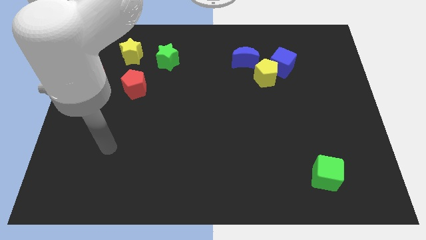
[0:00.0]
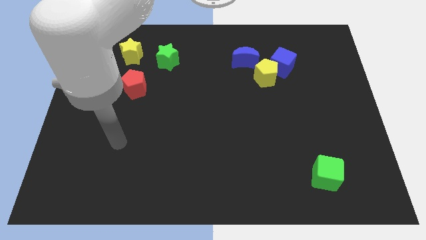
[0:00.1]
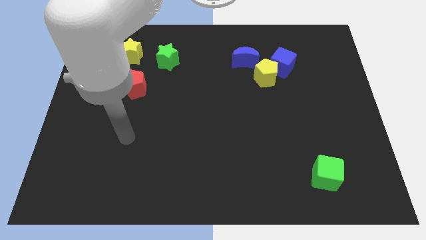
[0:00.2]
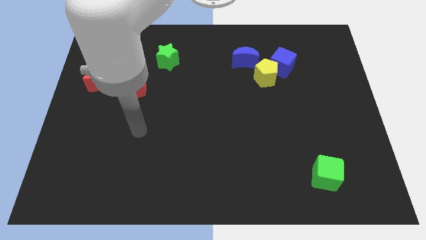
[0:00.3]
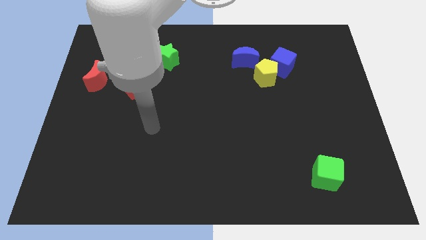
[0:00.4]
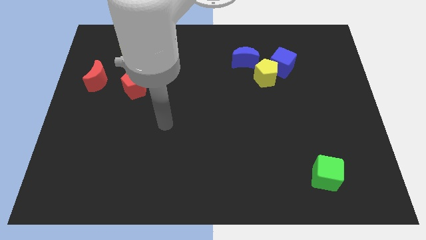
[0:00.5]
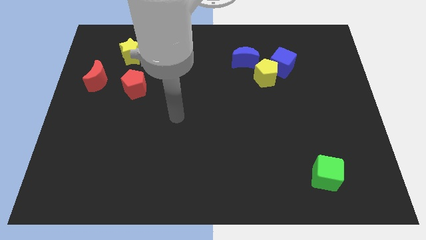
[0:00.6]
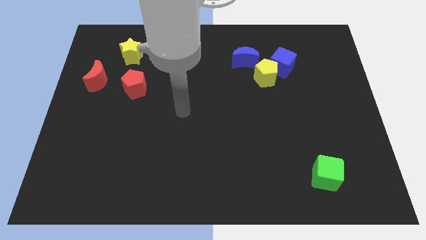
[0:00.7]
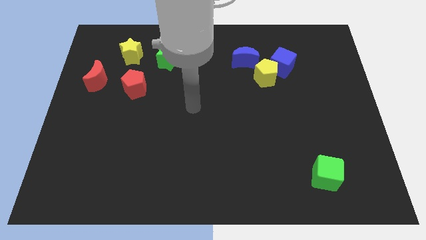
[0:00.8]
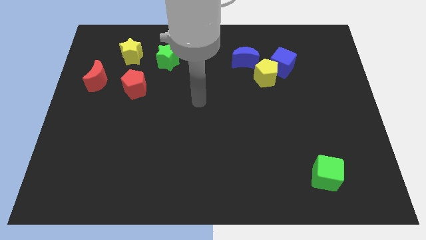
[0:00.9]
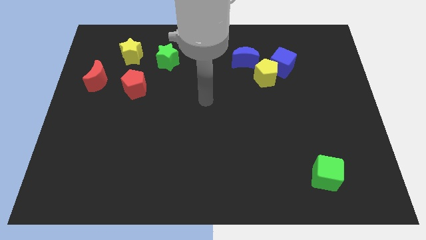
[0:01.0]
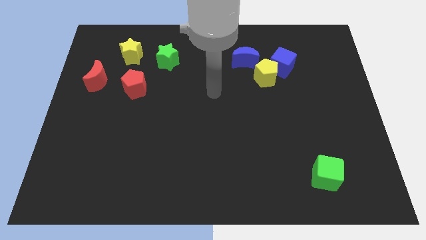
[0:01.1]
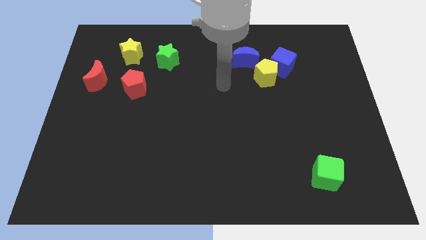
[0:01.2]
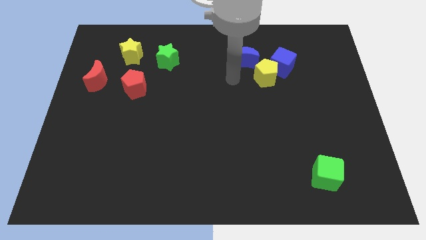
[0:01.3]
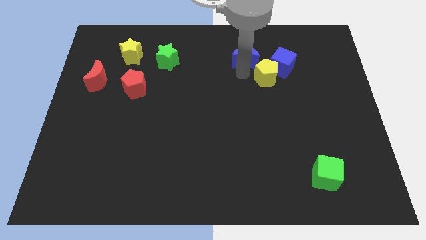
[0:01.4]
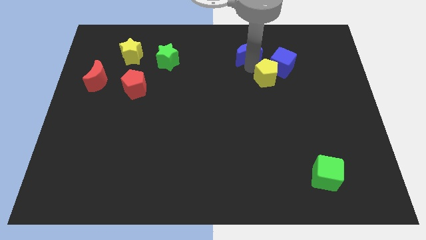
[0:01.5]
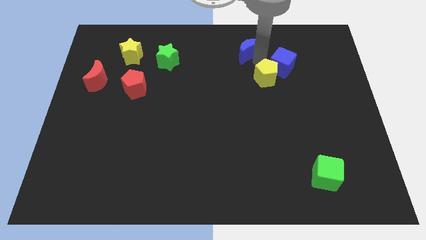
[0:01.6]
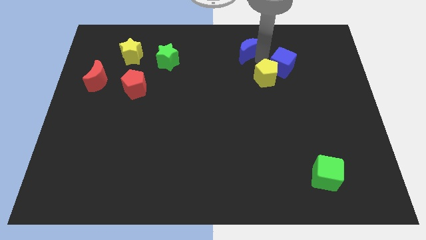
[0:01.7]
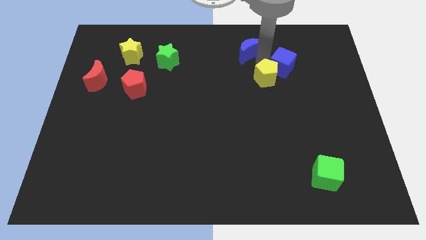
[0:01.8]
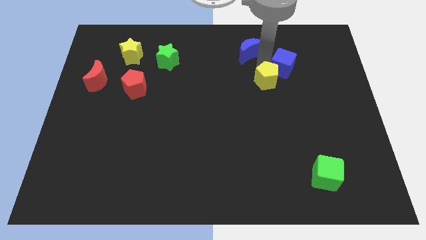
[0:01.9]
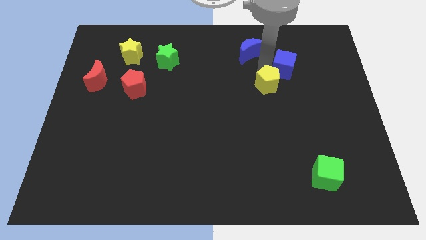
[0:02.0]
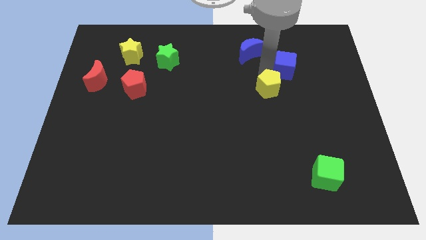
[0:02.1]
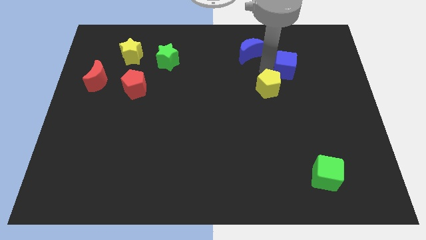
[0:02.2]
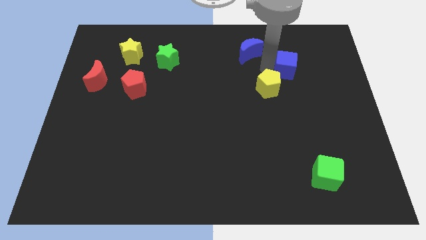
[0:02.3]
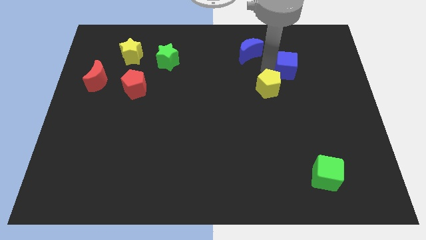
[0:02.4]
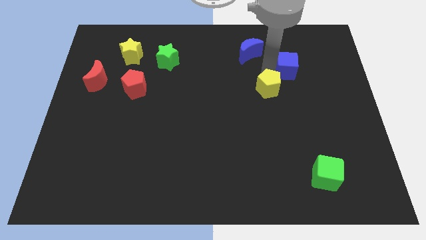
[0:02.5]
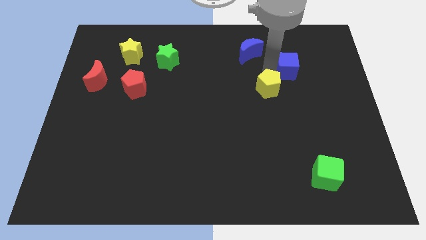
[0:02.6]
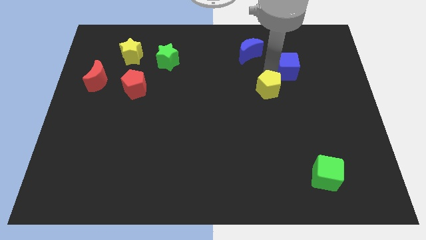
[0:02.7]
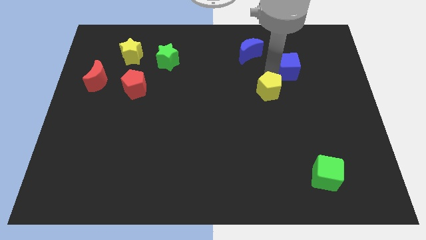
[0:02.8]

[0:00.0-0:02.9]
move the yellow pentagon away from the blue cube and blue moon

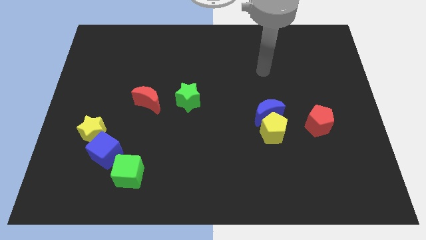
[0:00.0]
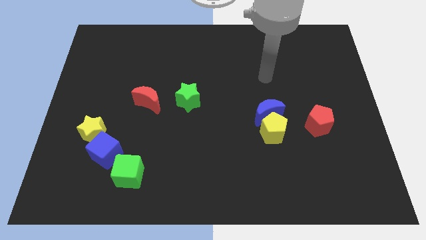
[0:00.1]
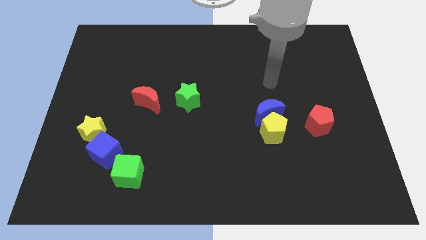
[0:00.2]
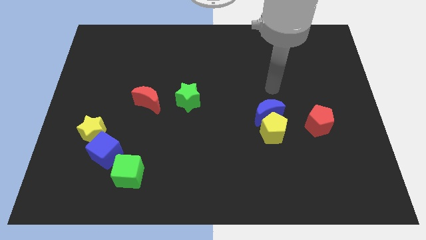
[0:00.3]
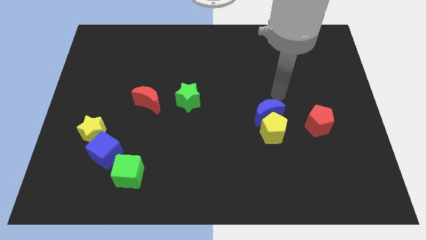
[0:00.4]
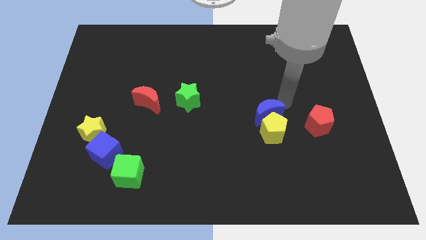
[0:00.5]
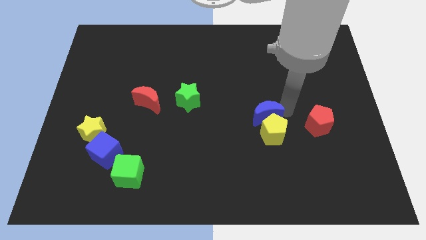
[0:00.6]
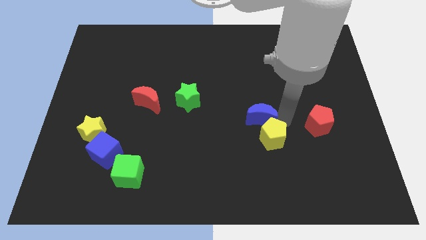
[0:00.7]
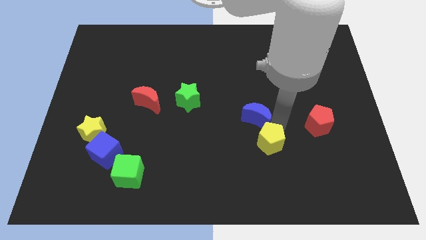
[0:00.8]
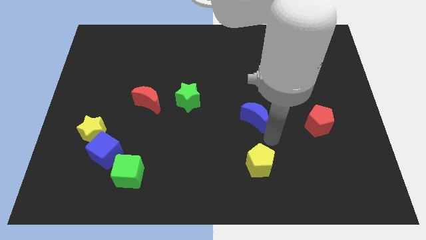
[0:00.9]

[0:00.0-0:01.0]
move the blue moon away from the yellow pentagon

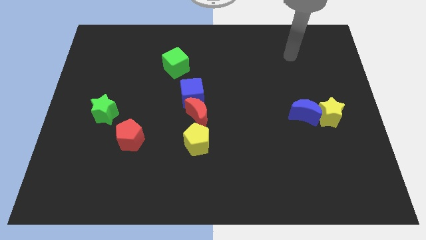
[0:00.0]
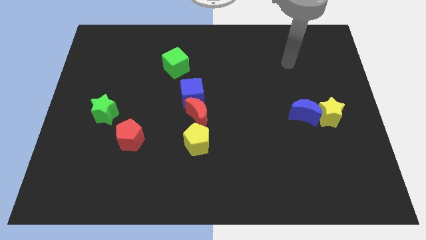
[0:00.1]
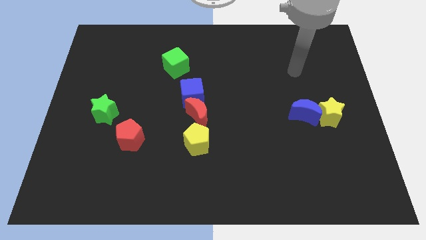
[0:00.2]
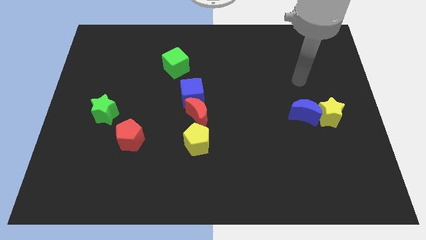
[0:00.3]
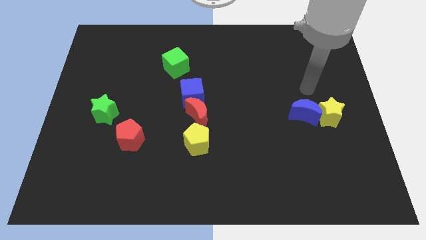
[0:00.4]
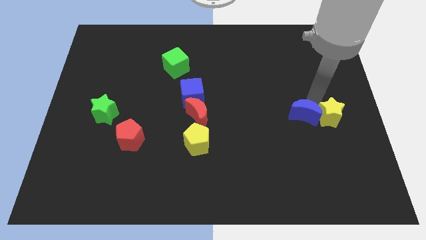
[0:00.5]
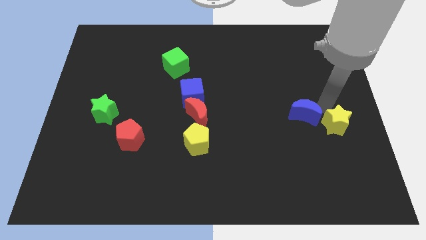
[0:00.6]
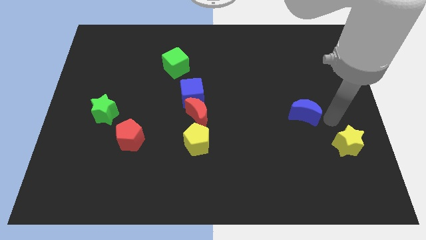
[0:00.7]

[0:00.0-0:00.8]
pull the blue moon apart from the yellow star

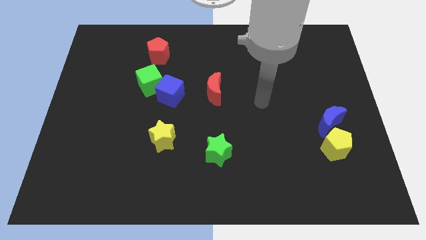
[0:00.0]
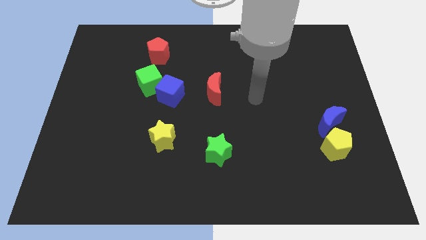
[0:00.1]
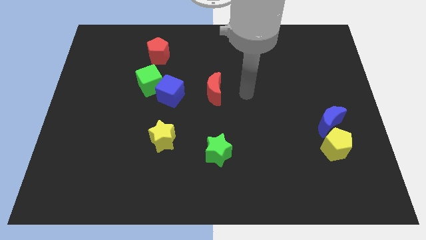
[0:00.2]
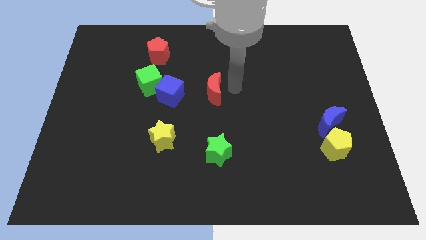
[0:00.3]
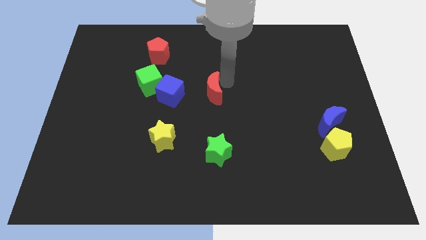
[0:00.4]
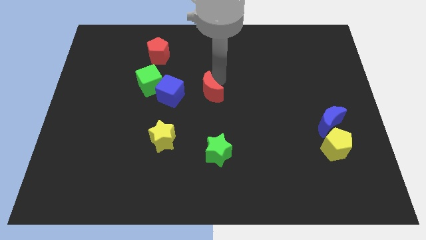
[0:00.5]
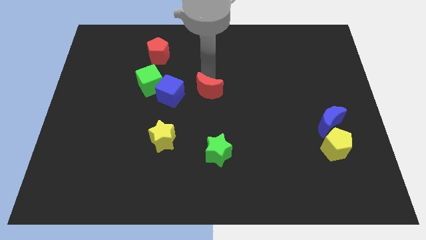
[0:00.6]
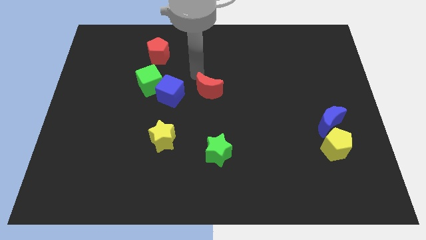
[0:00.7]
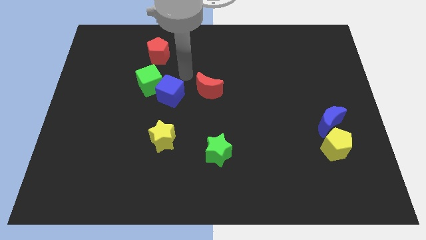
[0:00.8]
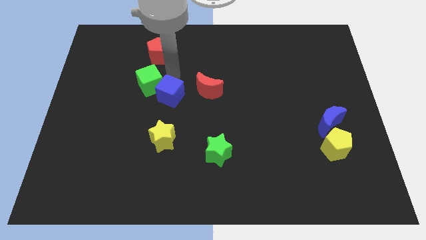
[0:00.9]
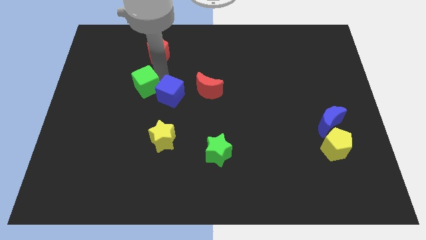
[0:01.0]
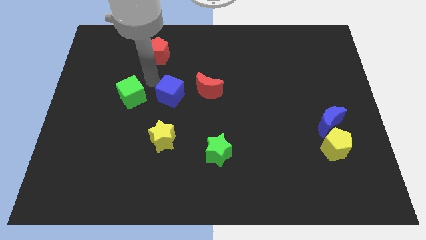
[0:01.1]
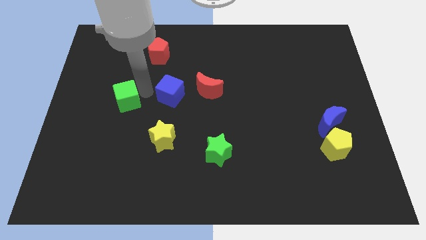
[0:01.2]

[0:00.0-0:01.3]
separate the blue cube from the green cube

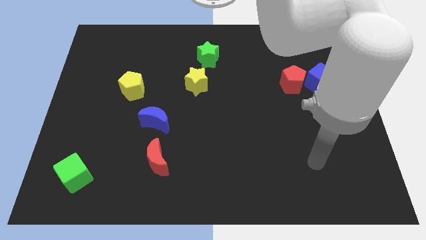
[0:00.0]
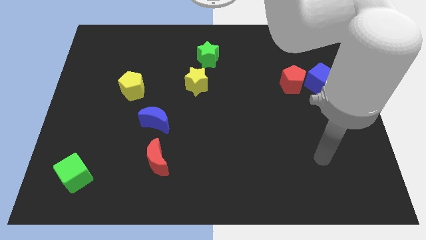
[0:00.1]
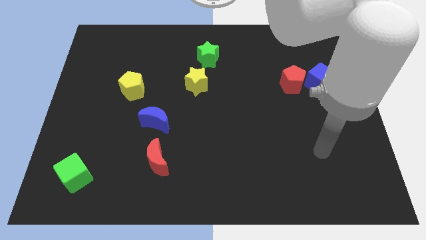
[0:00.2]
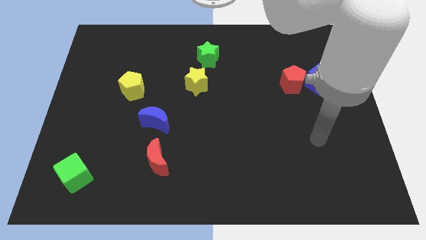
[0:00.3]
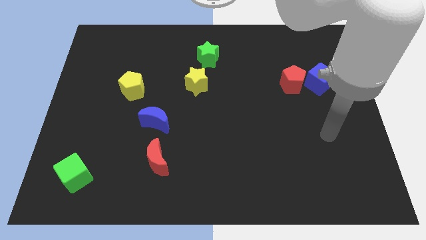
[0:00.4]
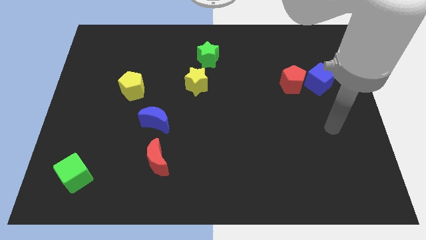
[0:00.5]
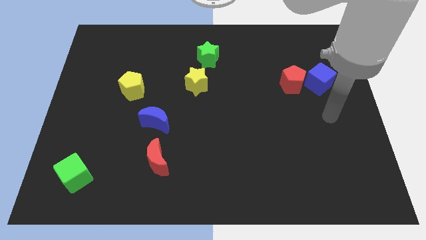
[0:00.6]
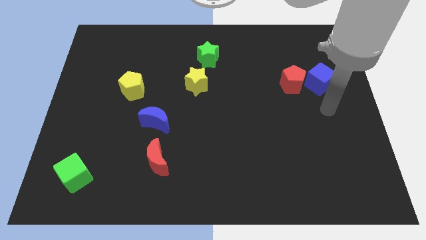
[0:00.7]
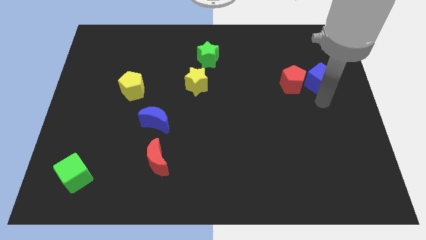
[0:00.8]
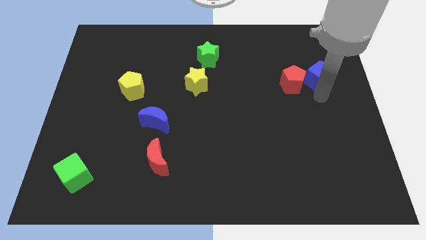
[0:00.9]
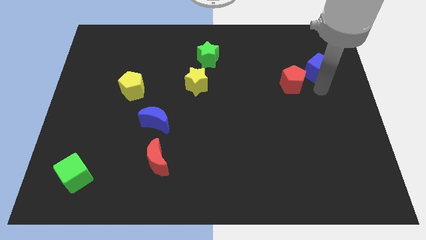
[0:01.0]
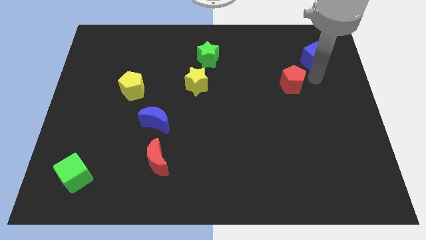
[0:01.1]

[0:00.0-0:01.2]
separate the red pentagon from the blue cube

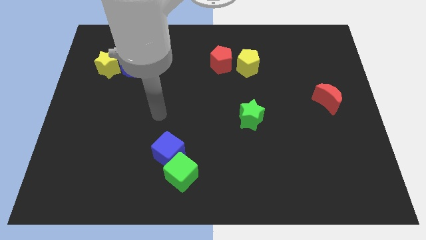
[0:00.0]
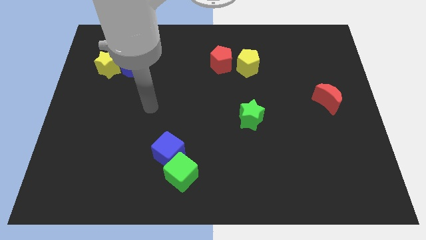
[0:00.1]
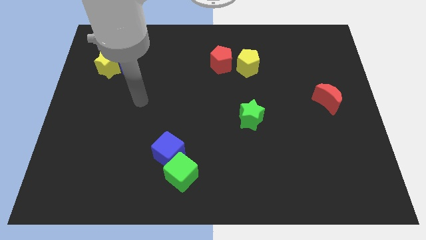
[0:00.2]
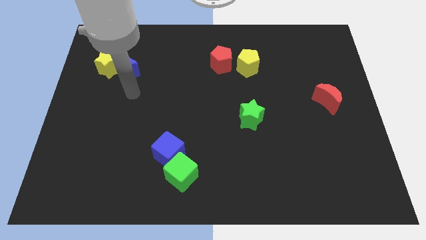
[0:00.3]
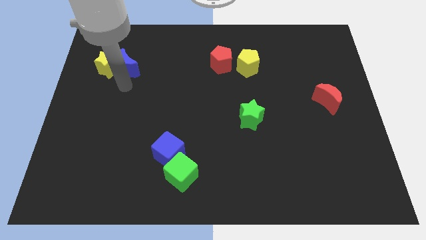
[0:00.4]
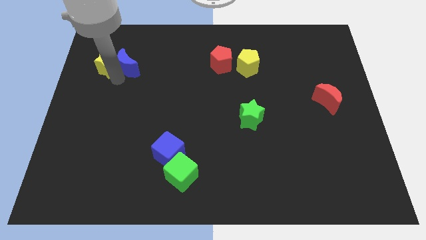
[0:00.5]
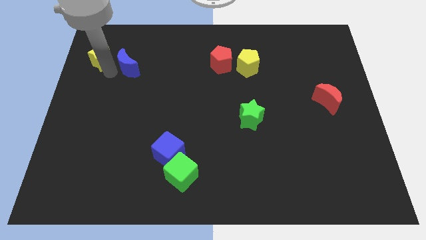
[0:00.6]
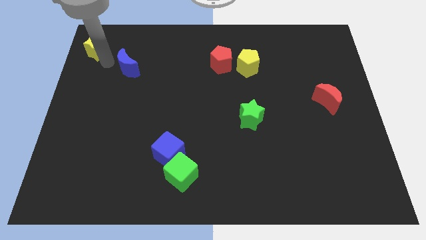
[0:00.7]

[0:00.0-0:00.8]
move the blue moon away from the yellow star

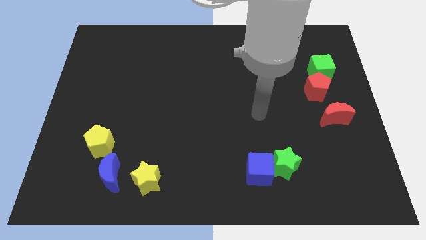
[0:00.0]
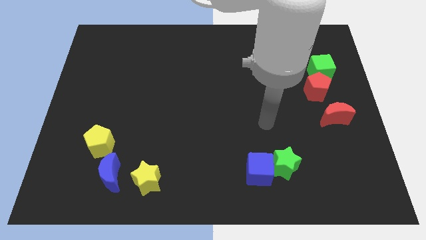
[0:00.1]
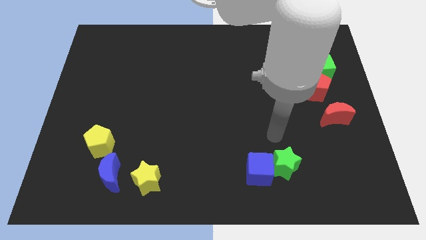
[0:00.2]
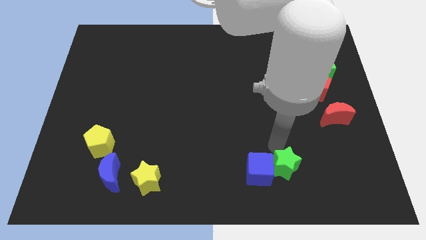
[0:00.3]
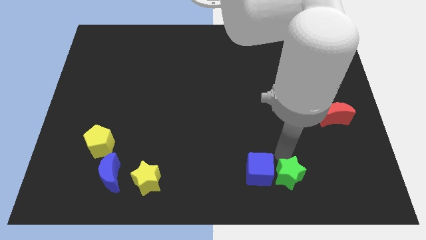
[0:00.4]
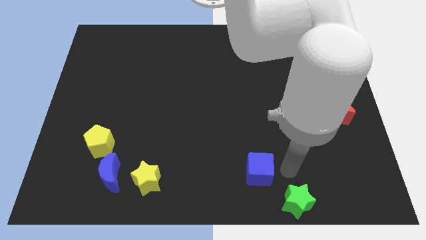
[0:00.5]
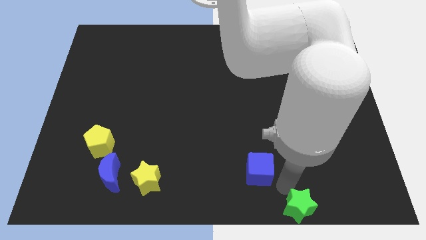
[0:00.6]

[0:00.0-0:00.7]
pull the blue cube apart from the green star

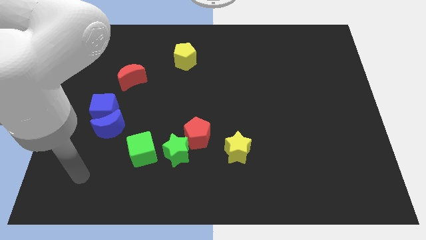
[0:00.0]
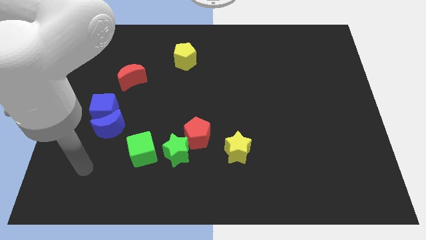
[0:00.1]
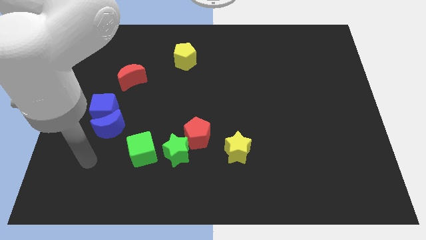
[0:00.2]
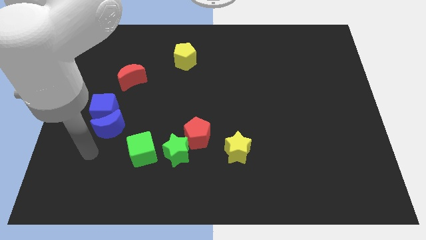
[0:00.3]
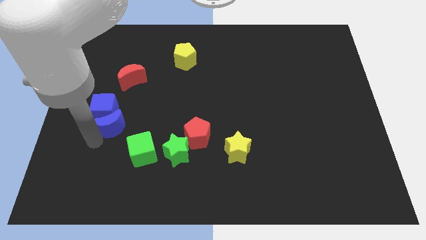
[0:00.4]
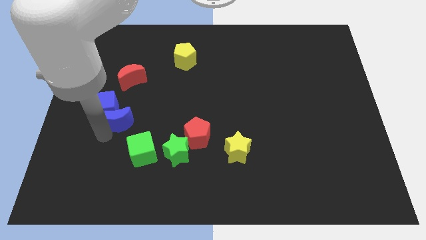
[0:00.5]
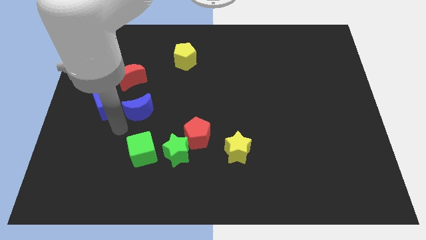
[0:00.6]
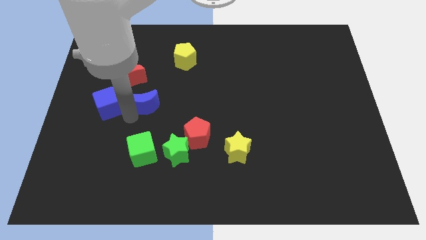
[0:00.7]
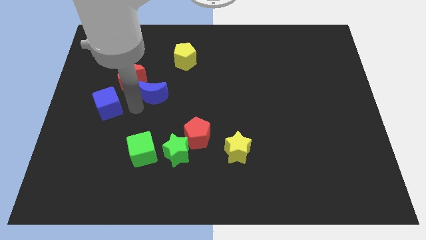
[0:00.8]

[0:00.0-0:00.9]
pull the blue cube apart from the blue moon
